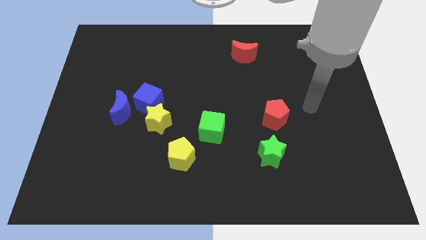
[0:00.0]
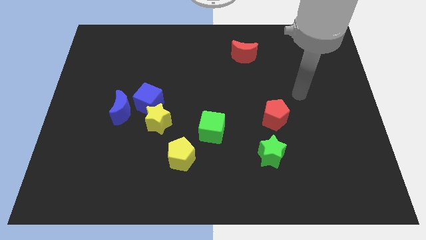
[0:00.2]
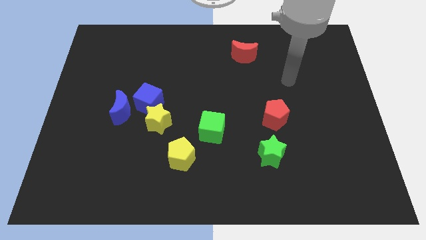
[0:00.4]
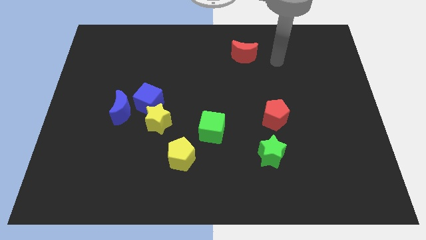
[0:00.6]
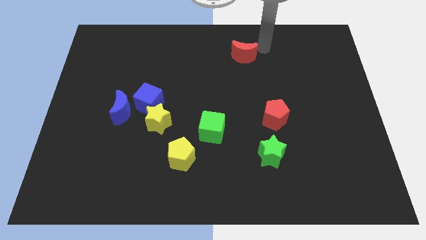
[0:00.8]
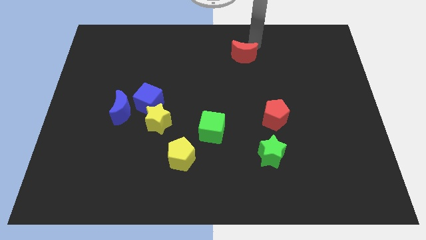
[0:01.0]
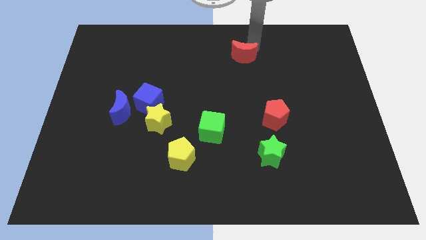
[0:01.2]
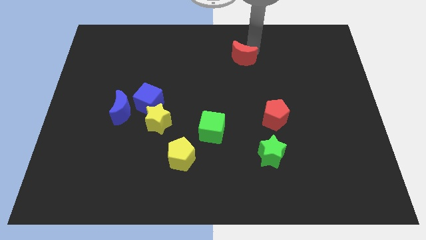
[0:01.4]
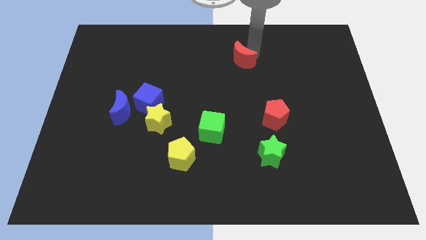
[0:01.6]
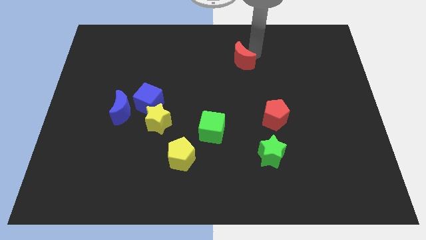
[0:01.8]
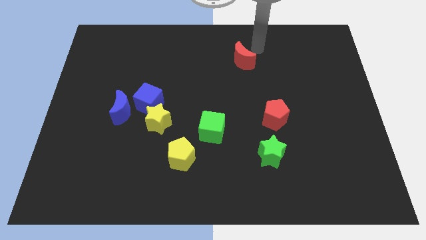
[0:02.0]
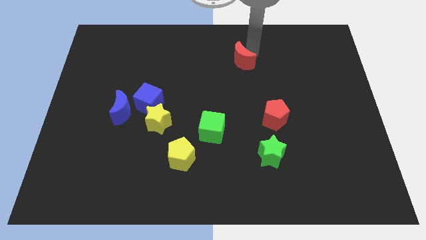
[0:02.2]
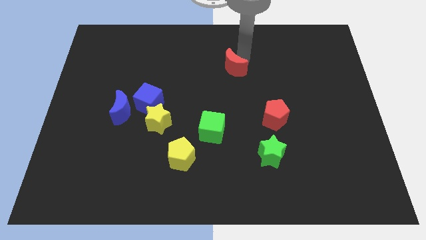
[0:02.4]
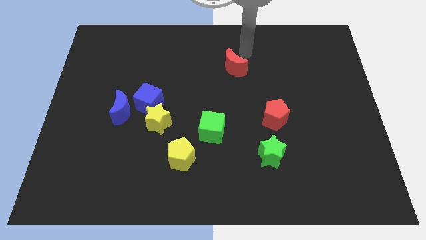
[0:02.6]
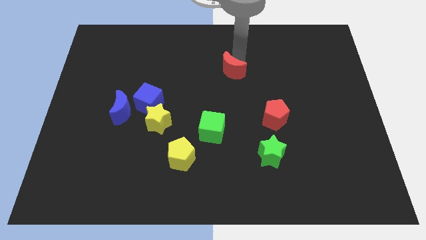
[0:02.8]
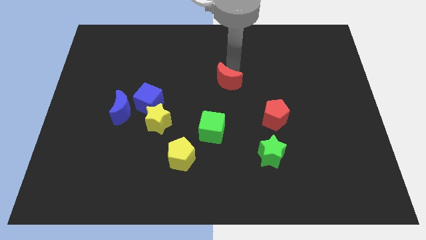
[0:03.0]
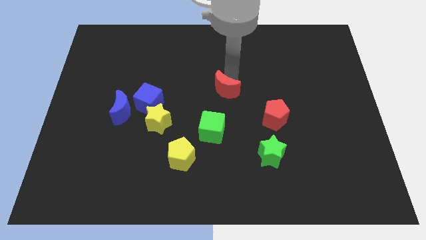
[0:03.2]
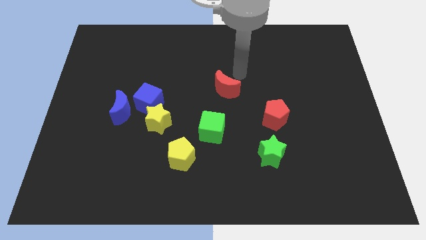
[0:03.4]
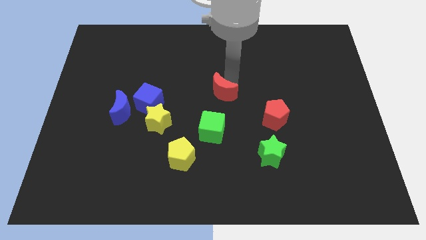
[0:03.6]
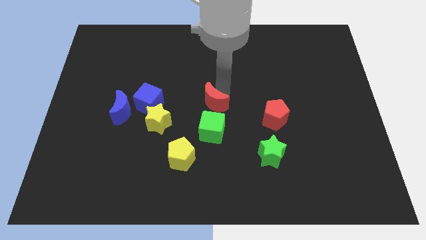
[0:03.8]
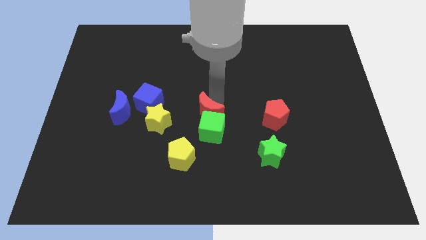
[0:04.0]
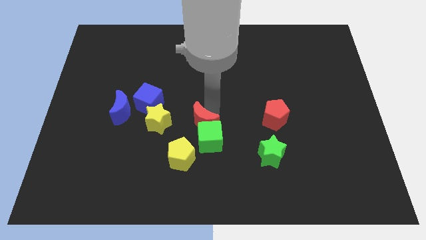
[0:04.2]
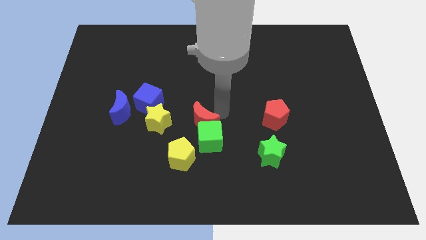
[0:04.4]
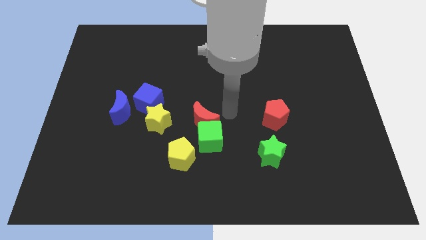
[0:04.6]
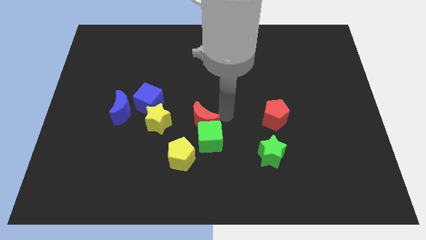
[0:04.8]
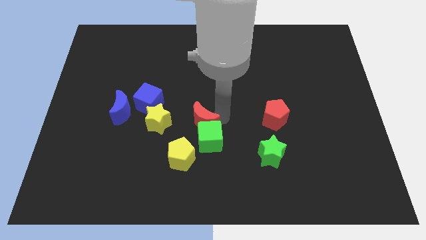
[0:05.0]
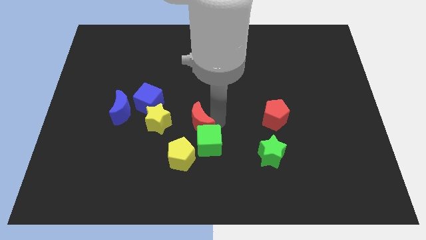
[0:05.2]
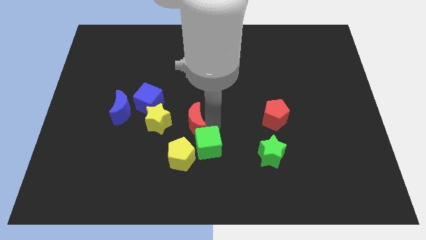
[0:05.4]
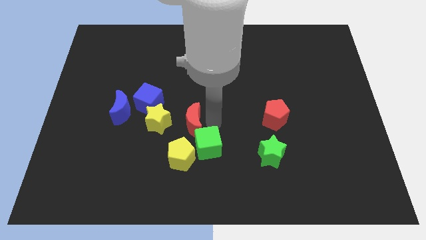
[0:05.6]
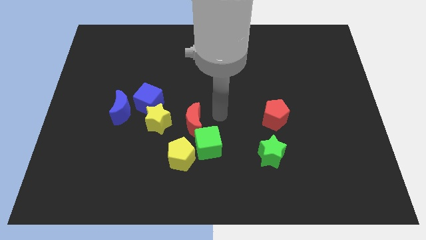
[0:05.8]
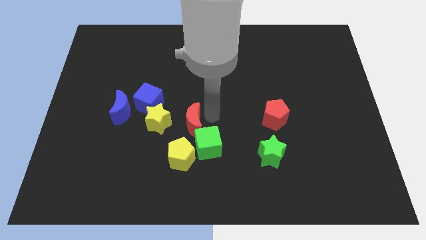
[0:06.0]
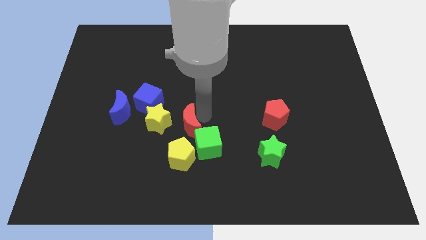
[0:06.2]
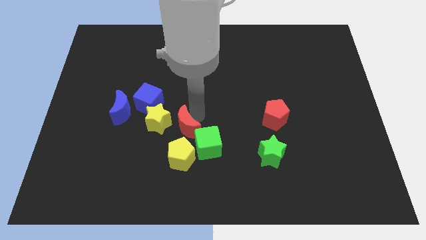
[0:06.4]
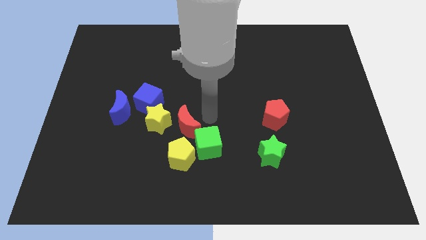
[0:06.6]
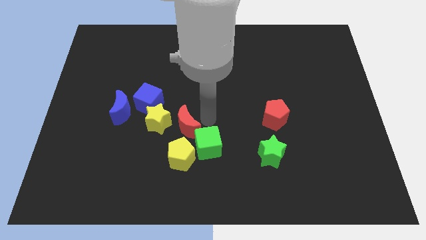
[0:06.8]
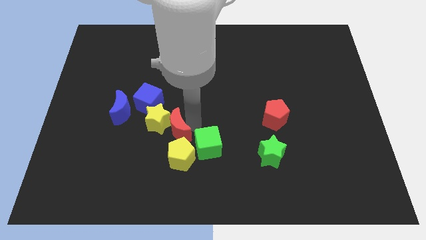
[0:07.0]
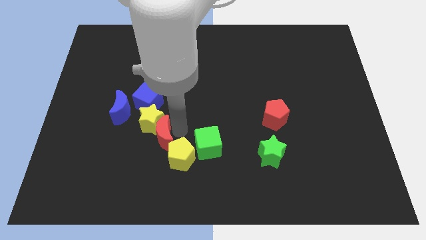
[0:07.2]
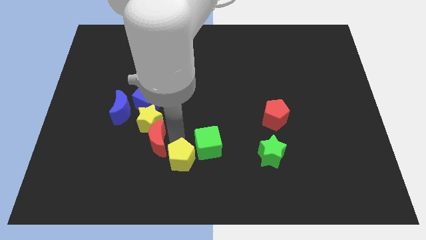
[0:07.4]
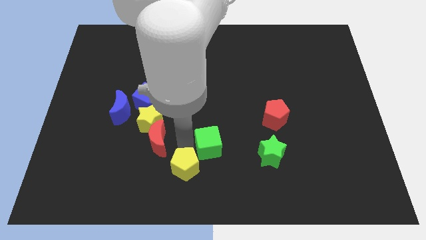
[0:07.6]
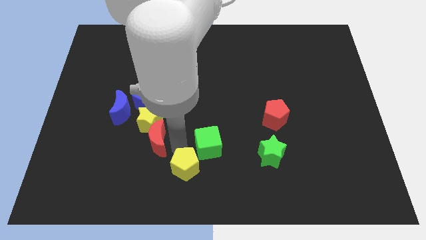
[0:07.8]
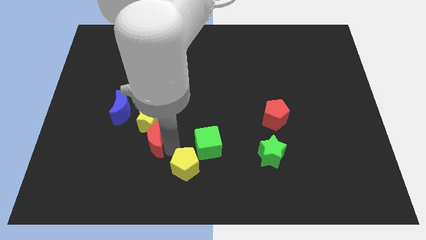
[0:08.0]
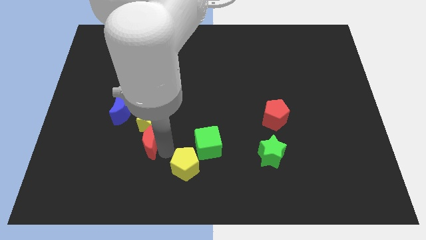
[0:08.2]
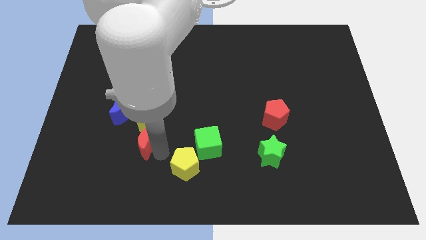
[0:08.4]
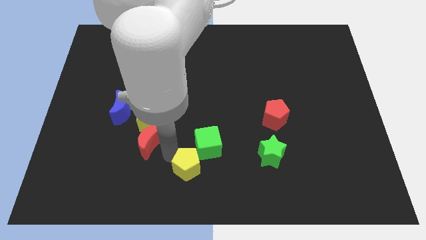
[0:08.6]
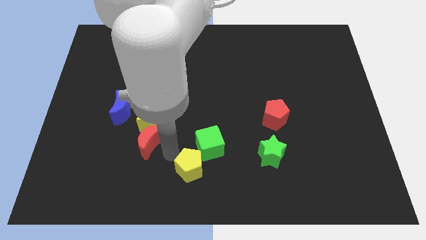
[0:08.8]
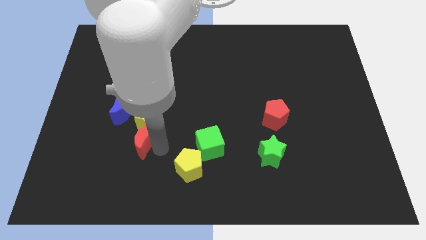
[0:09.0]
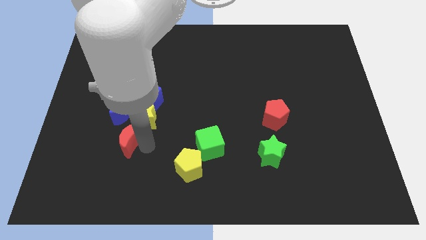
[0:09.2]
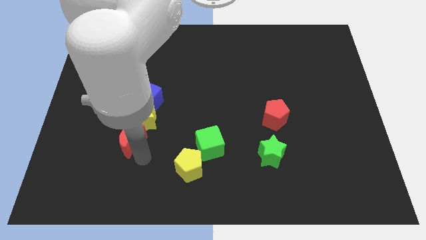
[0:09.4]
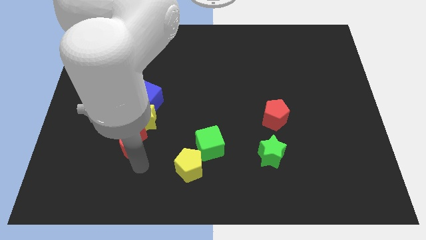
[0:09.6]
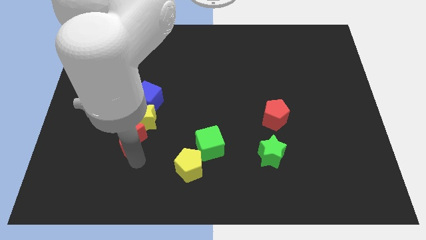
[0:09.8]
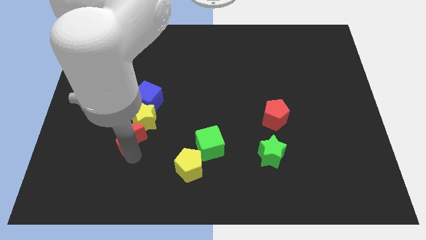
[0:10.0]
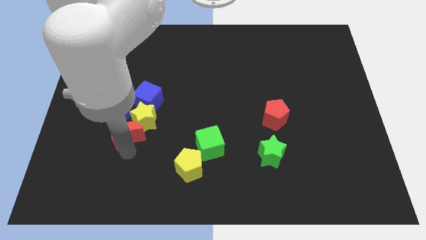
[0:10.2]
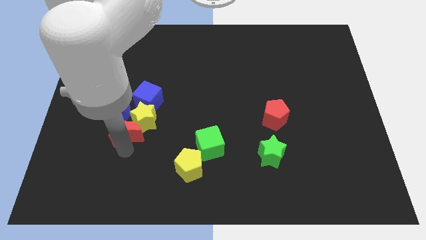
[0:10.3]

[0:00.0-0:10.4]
push the red moon to the bottom left side of the blue cube

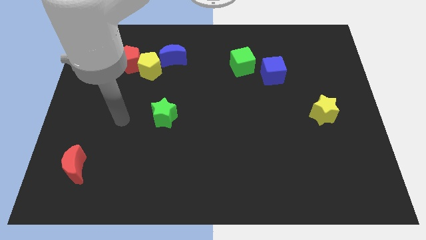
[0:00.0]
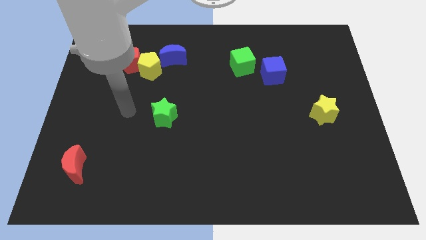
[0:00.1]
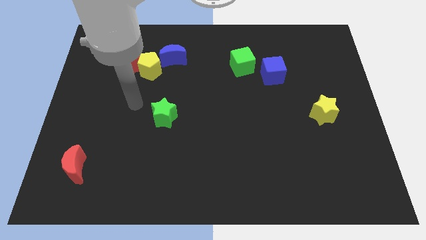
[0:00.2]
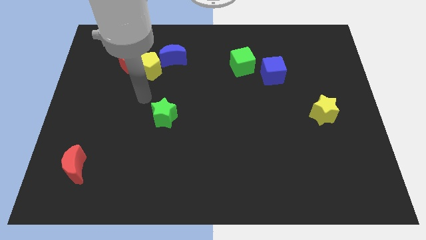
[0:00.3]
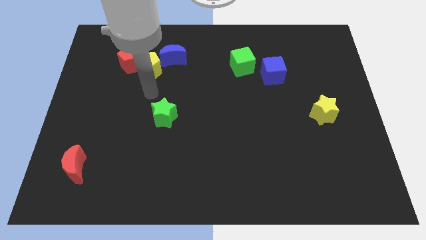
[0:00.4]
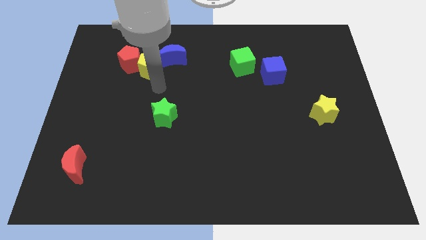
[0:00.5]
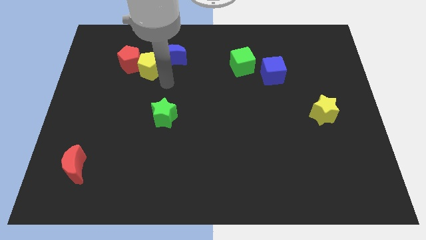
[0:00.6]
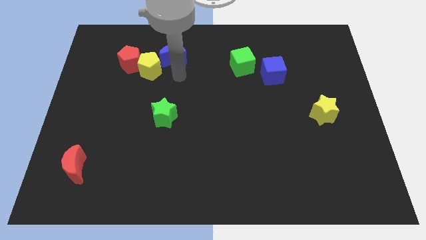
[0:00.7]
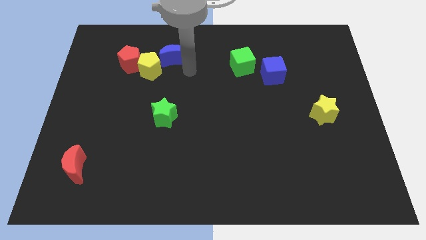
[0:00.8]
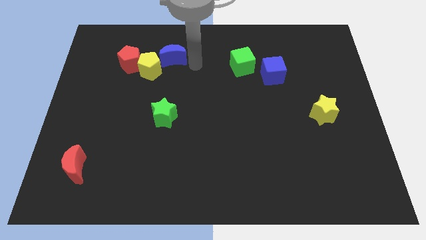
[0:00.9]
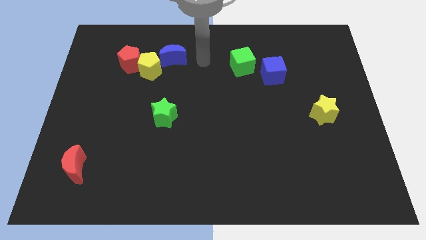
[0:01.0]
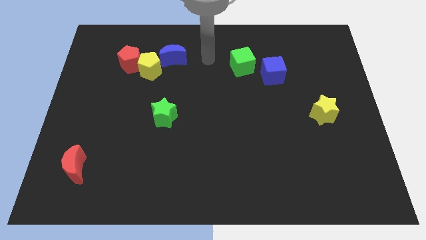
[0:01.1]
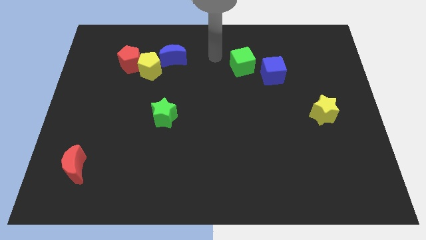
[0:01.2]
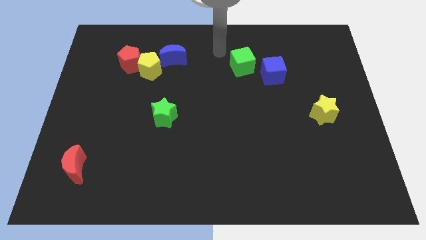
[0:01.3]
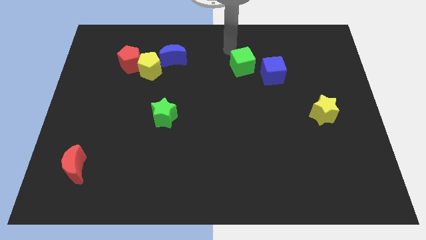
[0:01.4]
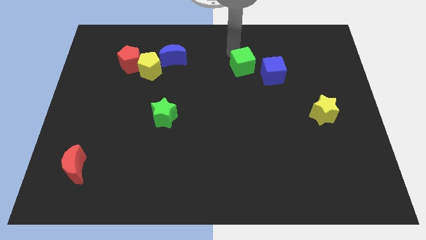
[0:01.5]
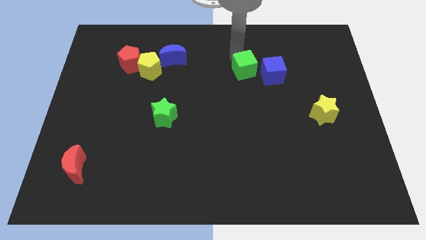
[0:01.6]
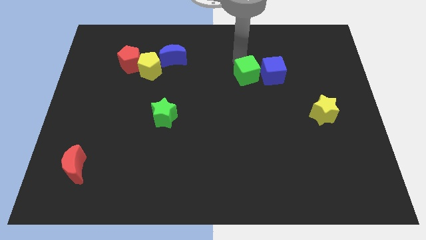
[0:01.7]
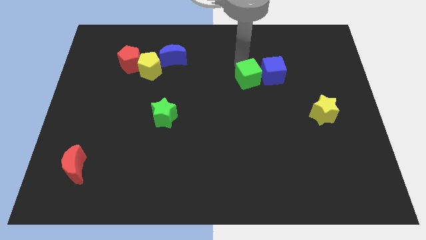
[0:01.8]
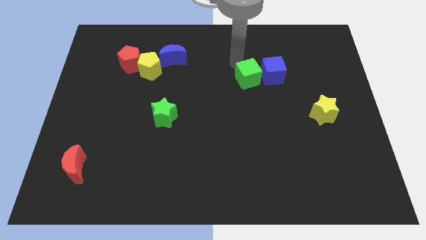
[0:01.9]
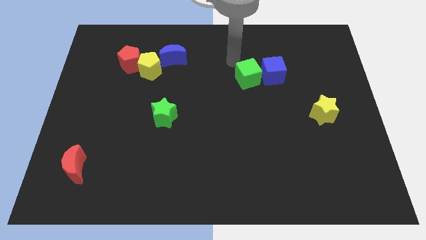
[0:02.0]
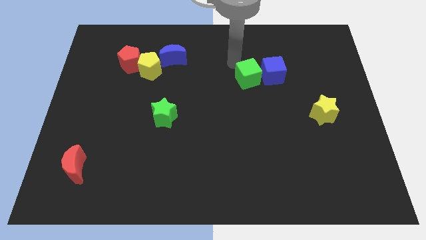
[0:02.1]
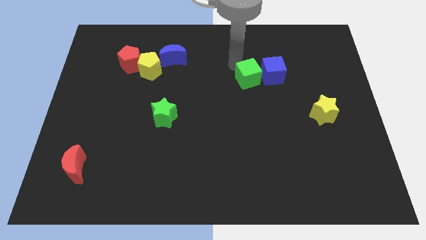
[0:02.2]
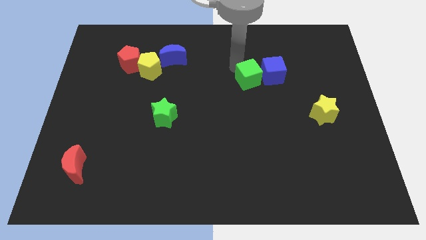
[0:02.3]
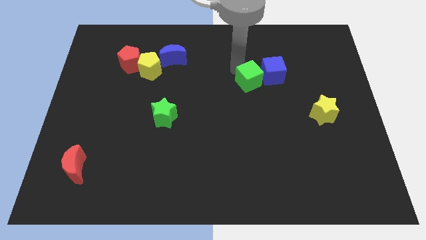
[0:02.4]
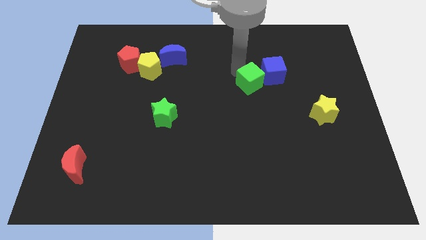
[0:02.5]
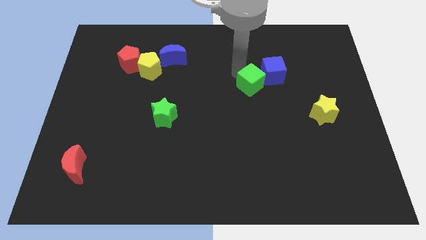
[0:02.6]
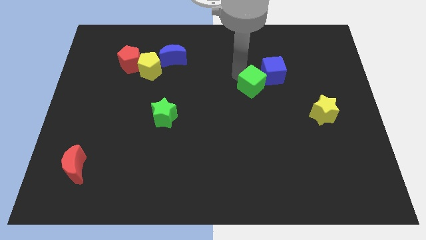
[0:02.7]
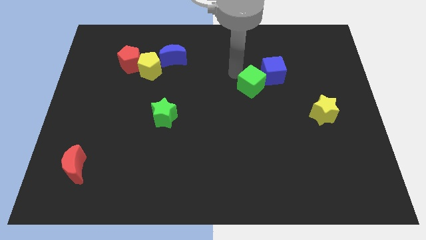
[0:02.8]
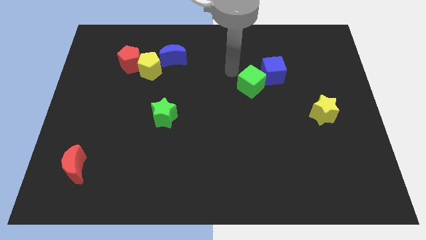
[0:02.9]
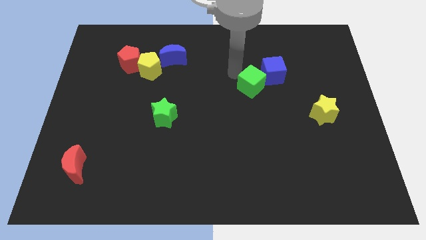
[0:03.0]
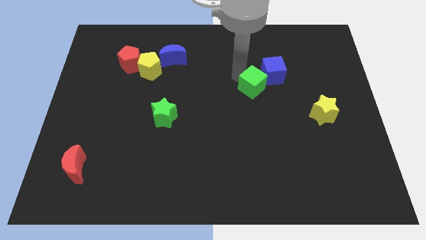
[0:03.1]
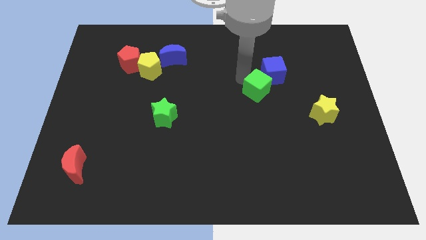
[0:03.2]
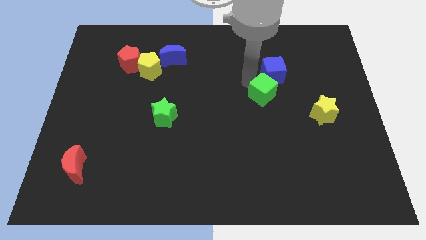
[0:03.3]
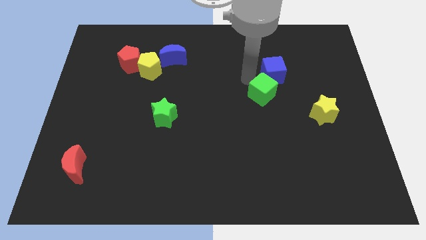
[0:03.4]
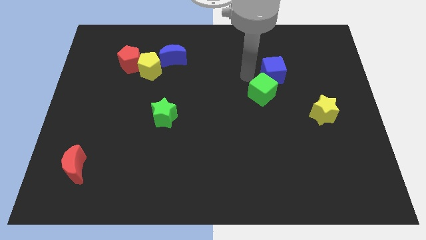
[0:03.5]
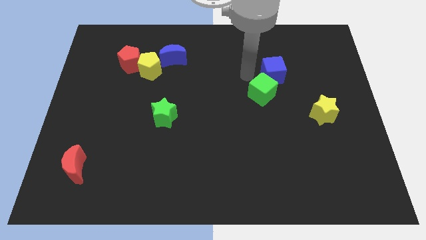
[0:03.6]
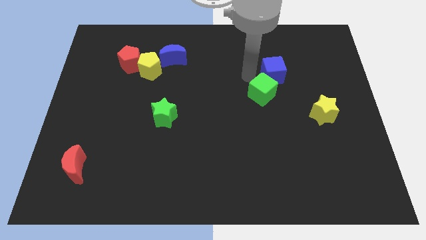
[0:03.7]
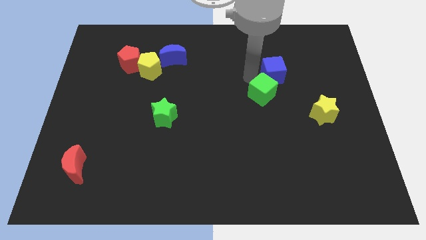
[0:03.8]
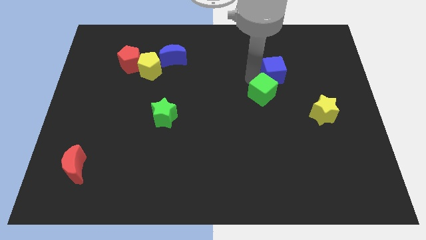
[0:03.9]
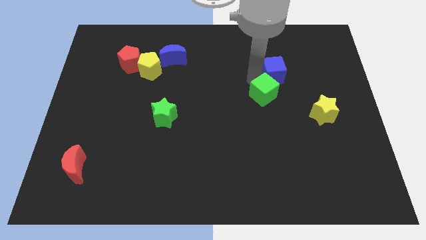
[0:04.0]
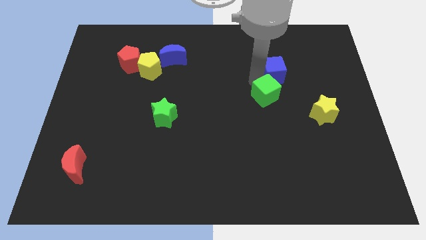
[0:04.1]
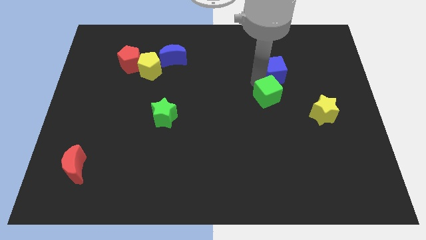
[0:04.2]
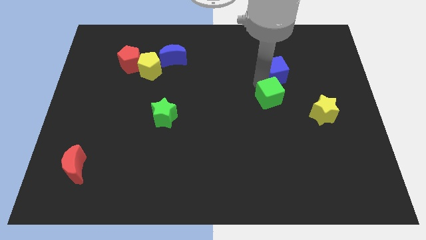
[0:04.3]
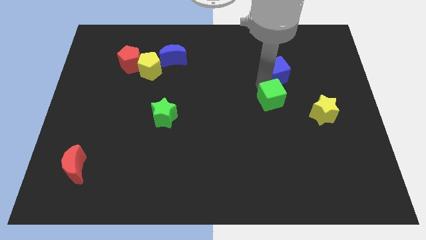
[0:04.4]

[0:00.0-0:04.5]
move the green cube just left of the yellow star
